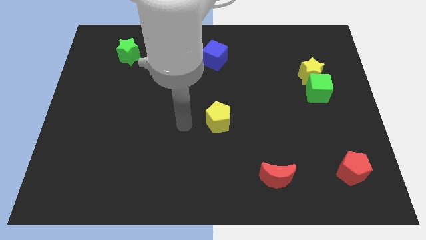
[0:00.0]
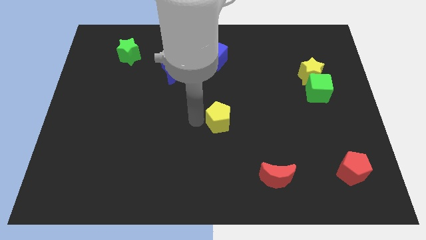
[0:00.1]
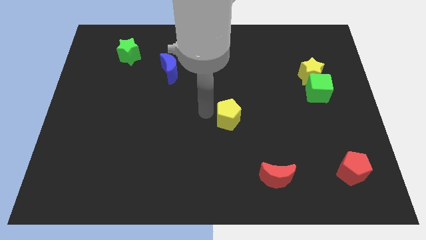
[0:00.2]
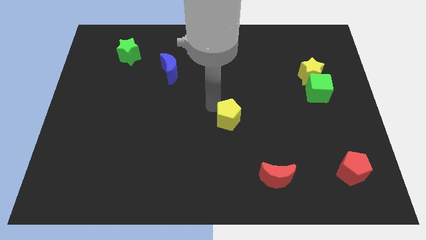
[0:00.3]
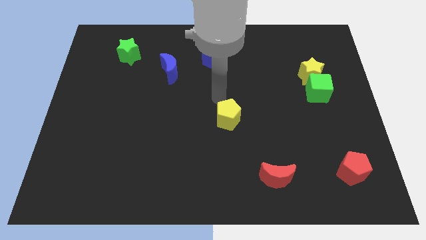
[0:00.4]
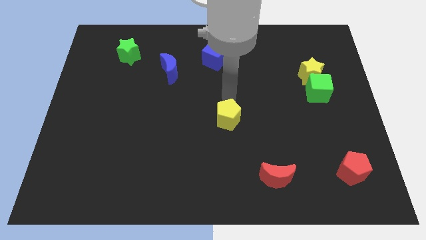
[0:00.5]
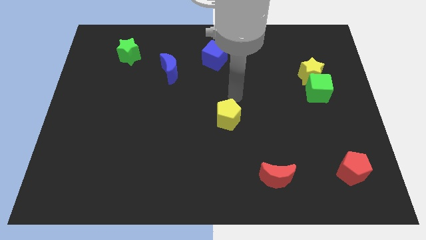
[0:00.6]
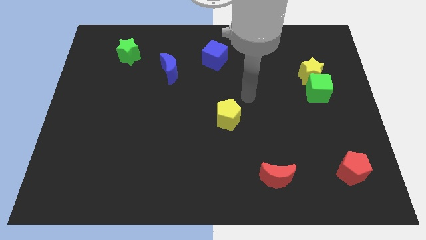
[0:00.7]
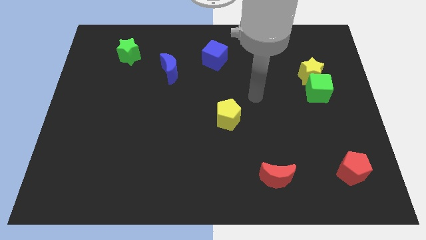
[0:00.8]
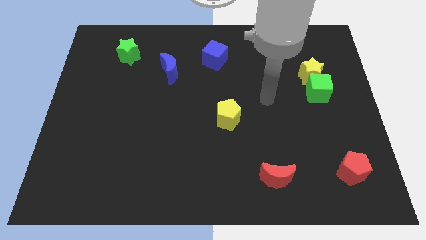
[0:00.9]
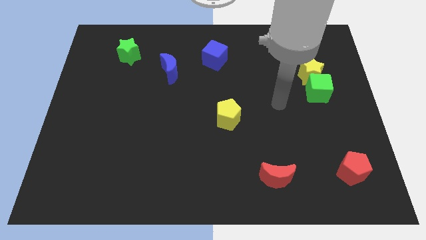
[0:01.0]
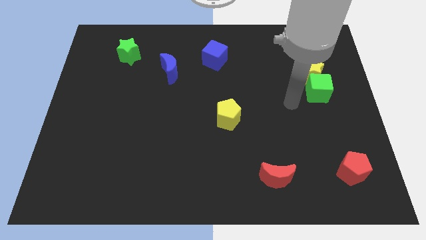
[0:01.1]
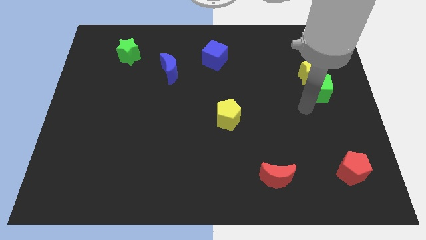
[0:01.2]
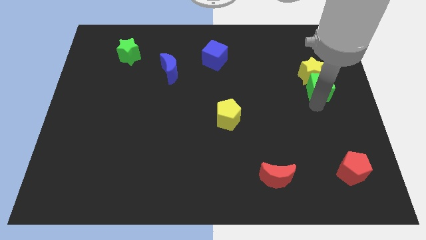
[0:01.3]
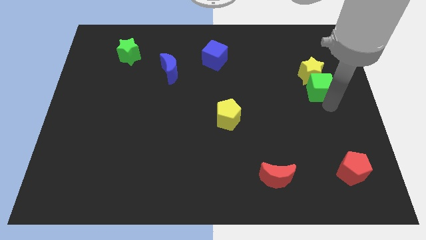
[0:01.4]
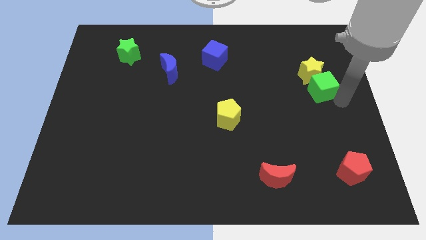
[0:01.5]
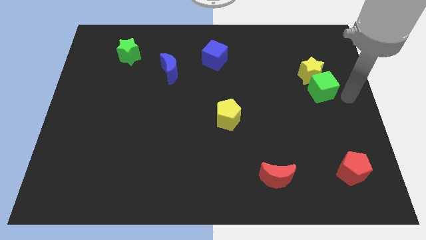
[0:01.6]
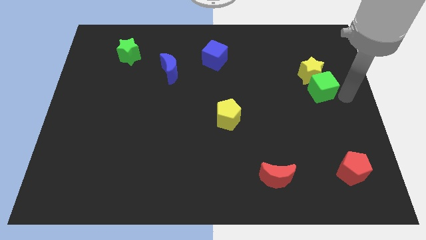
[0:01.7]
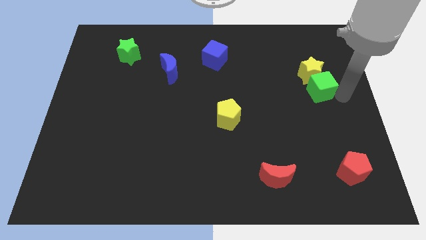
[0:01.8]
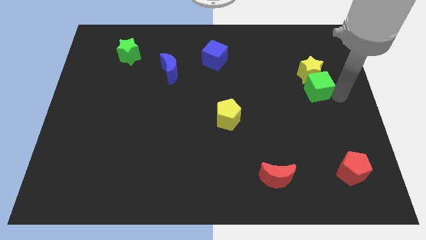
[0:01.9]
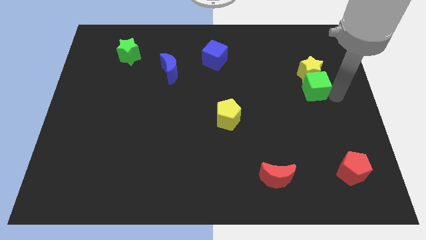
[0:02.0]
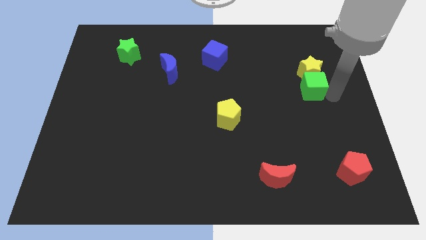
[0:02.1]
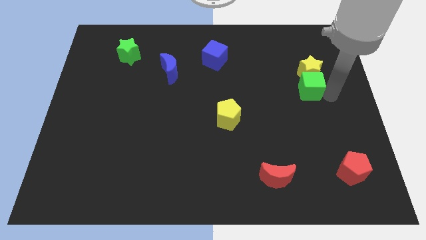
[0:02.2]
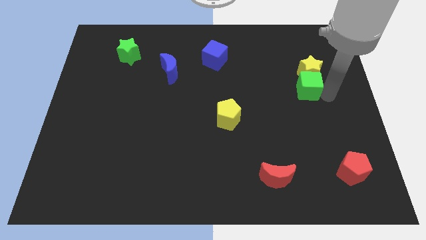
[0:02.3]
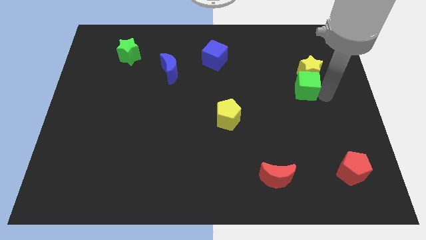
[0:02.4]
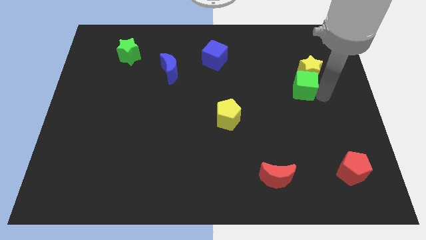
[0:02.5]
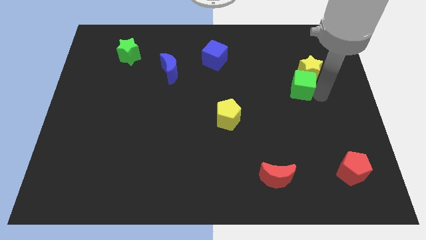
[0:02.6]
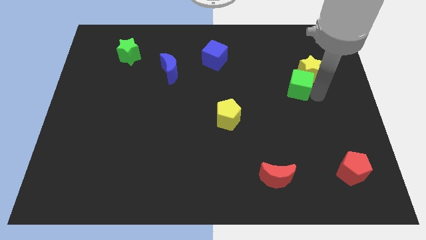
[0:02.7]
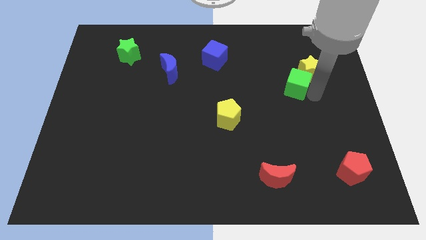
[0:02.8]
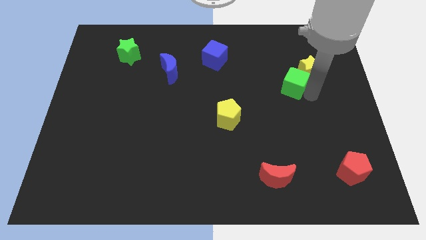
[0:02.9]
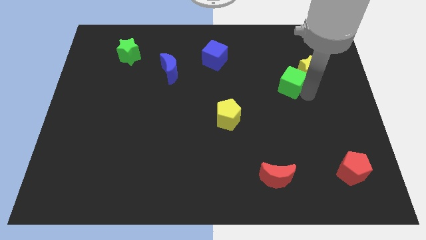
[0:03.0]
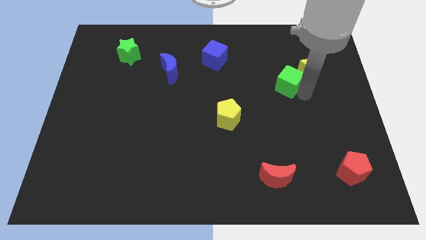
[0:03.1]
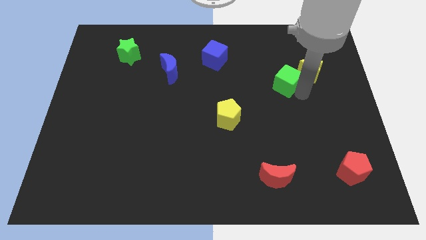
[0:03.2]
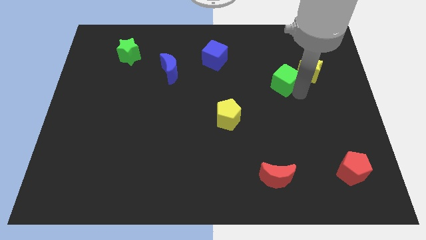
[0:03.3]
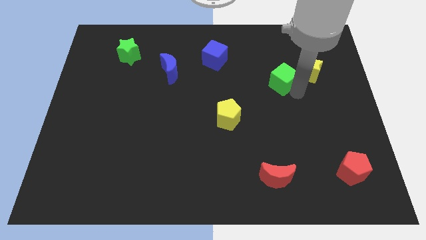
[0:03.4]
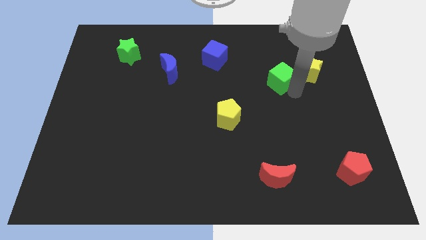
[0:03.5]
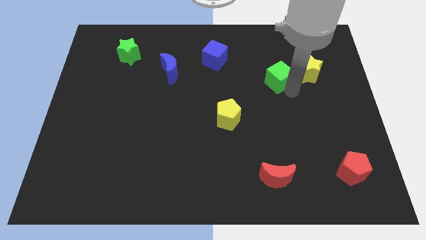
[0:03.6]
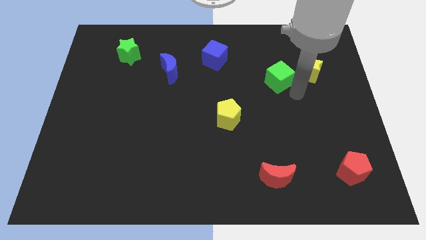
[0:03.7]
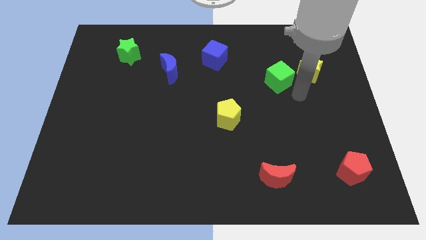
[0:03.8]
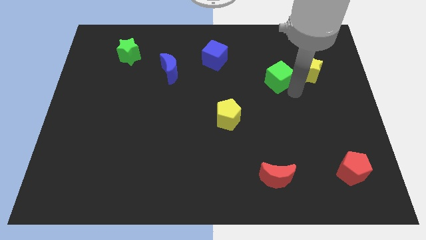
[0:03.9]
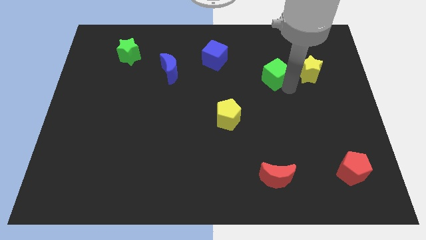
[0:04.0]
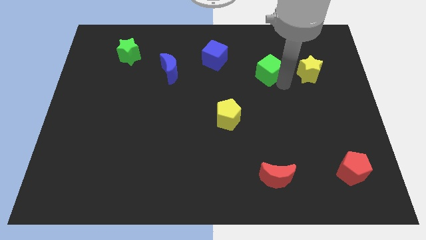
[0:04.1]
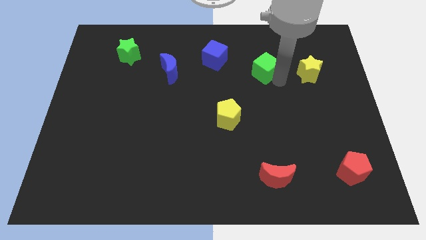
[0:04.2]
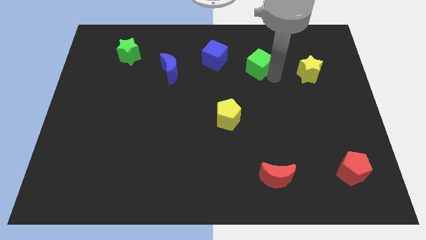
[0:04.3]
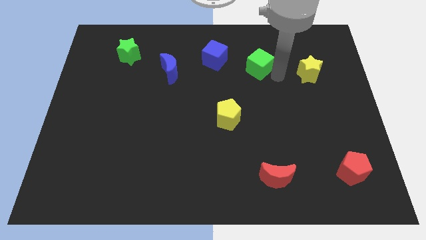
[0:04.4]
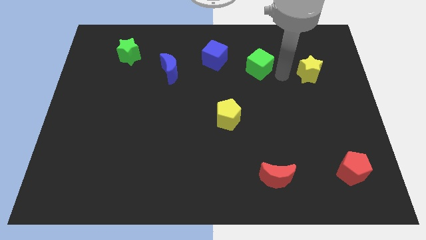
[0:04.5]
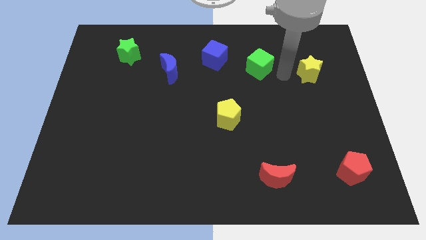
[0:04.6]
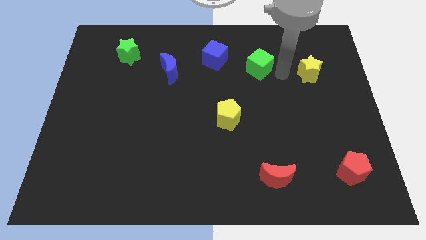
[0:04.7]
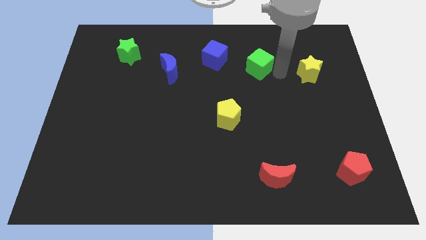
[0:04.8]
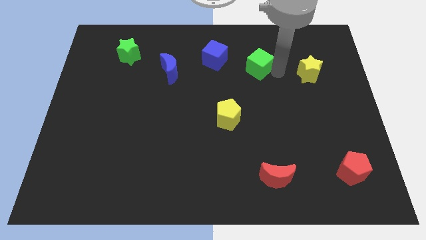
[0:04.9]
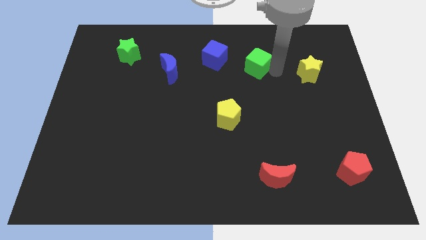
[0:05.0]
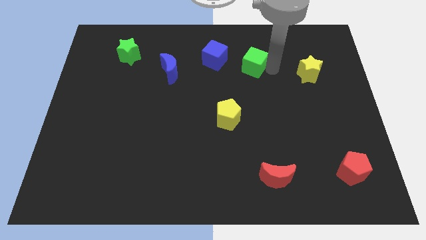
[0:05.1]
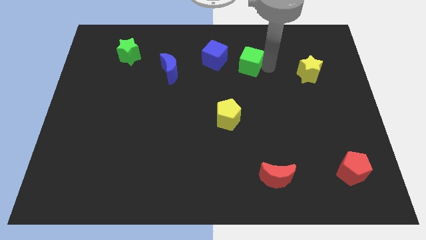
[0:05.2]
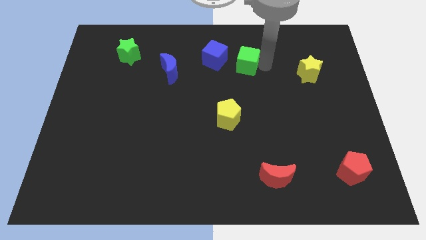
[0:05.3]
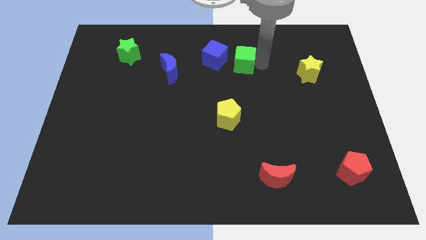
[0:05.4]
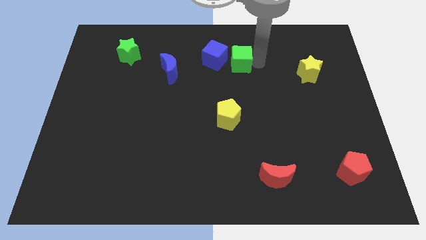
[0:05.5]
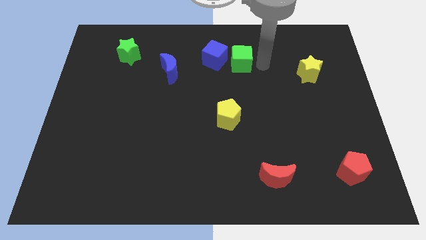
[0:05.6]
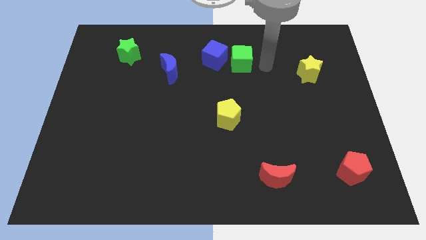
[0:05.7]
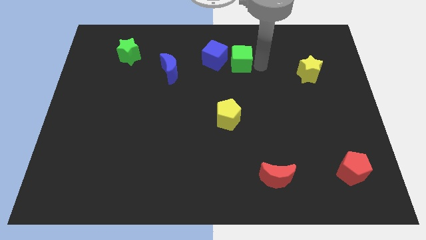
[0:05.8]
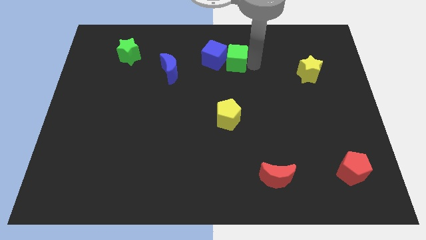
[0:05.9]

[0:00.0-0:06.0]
move the green cube next to the blue cube

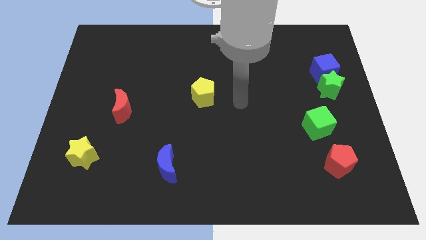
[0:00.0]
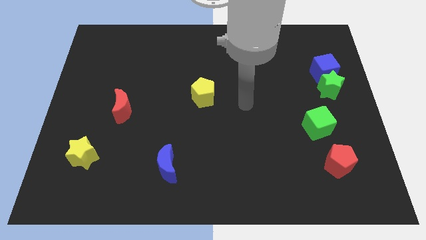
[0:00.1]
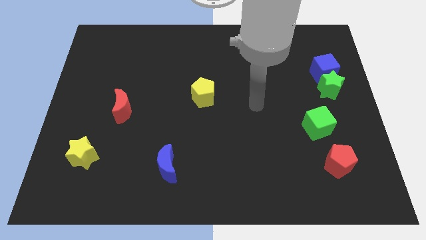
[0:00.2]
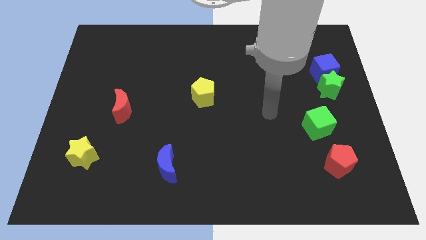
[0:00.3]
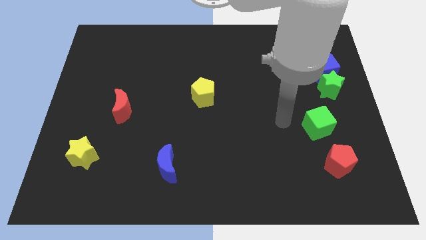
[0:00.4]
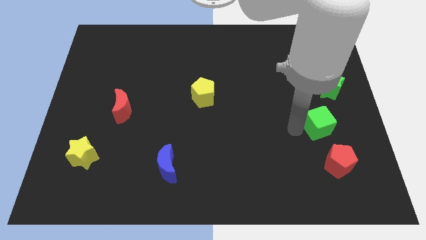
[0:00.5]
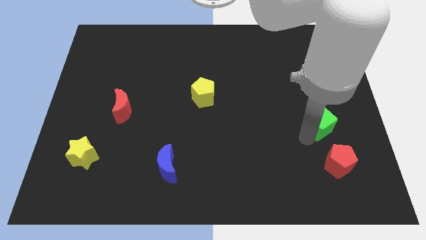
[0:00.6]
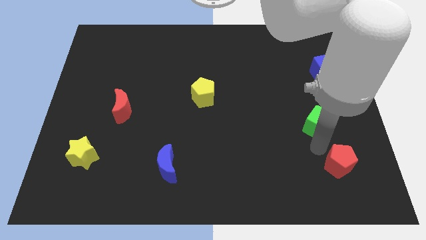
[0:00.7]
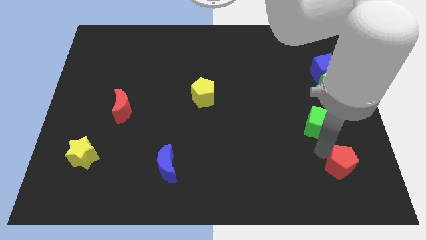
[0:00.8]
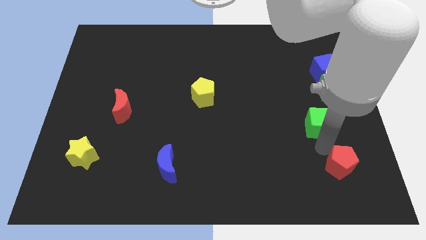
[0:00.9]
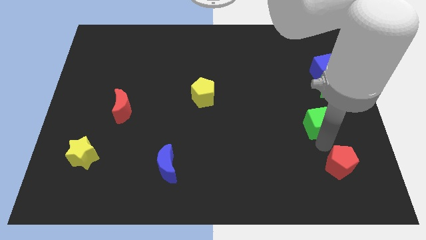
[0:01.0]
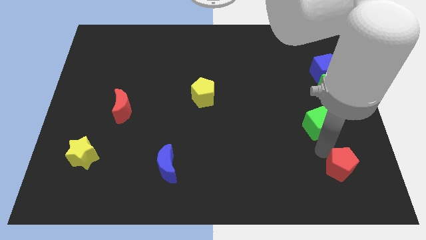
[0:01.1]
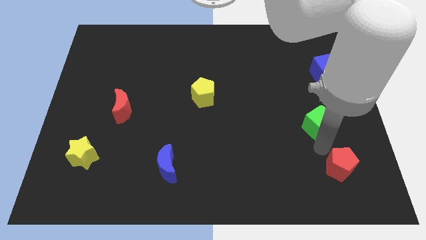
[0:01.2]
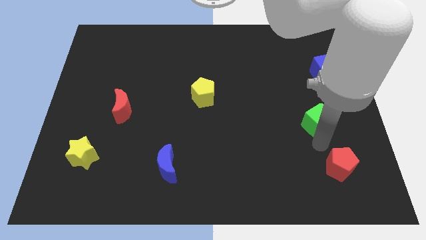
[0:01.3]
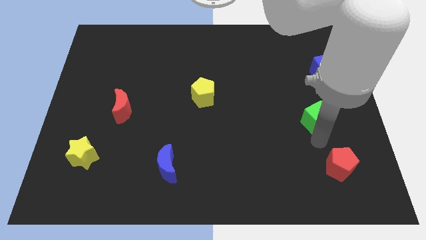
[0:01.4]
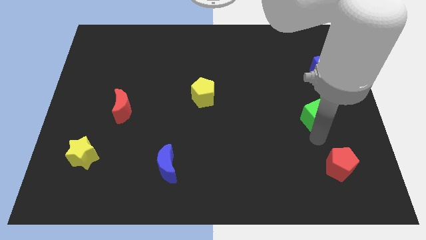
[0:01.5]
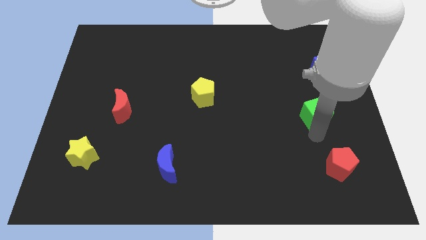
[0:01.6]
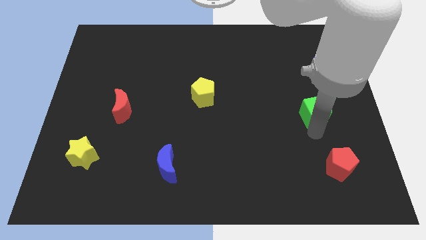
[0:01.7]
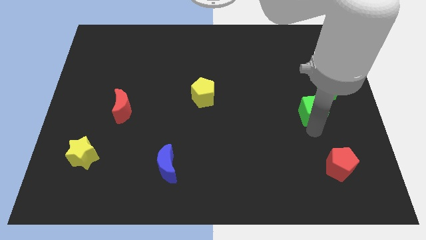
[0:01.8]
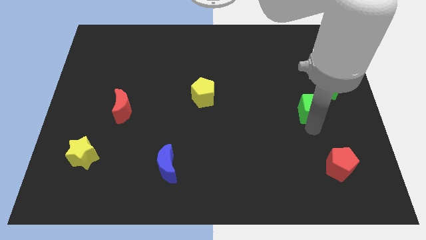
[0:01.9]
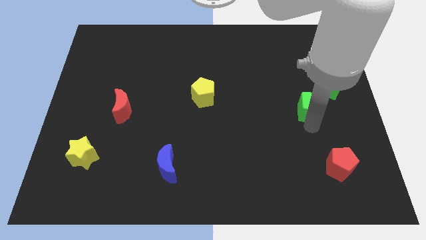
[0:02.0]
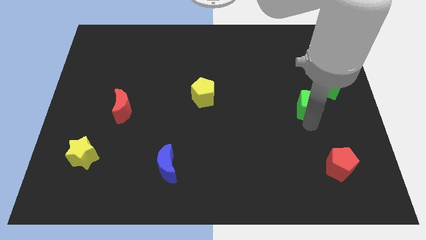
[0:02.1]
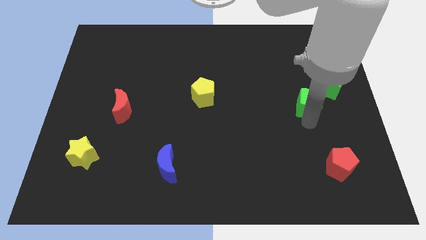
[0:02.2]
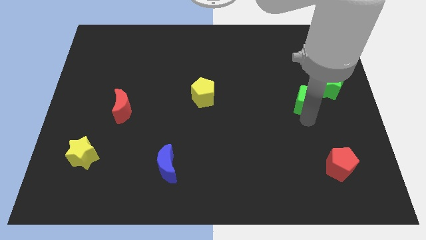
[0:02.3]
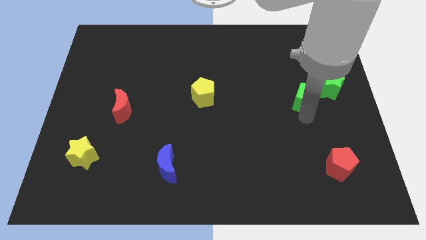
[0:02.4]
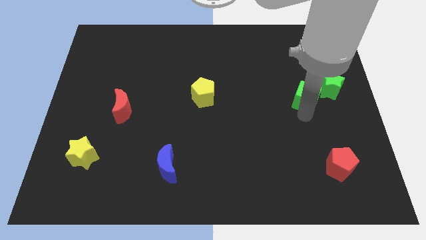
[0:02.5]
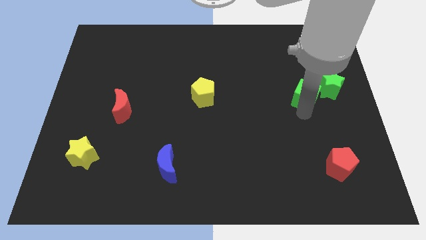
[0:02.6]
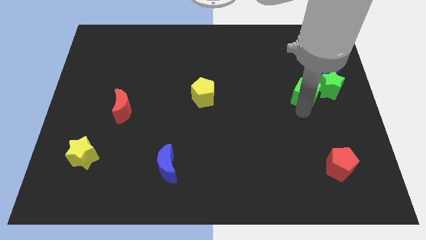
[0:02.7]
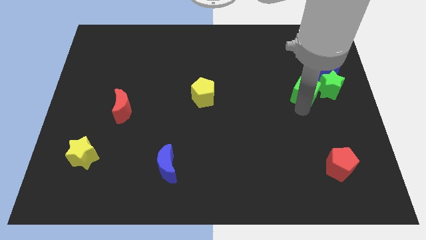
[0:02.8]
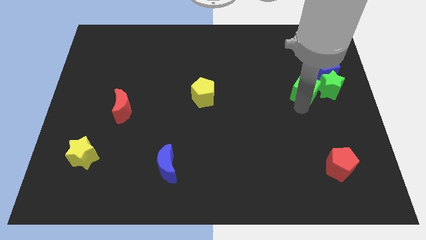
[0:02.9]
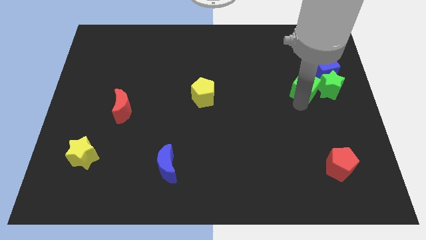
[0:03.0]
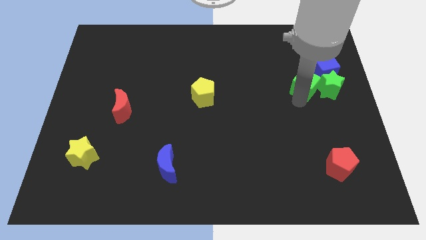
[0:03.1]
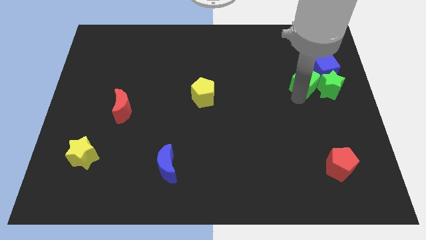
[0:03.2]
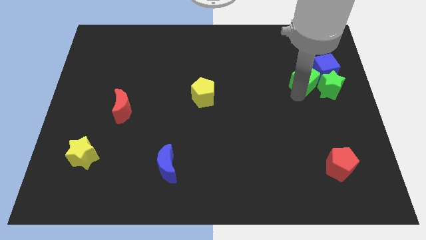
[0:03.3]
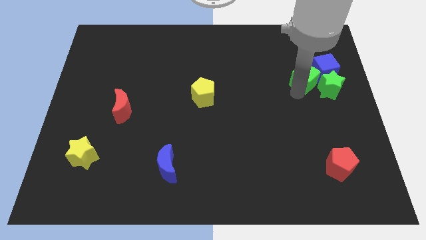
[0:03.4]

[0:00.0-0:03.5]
put the green cube next to the blue cube
